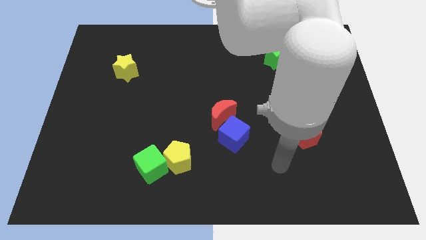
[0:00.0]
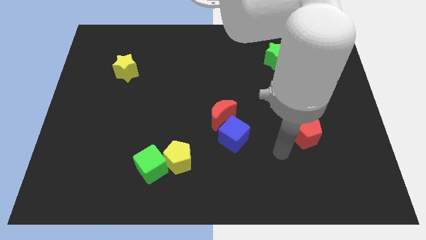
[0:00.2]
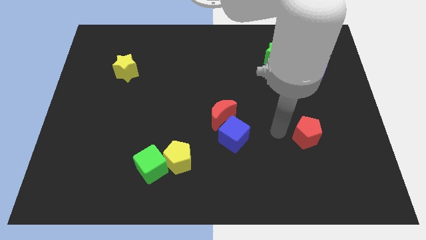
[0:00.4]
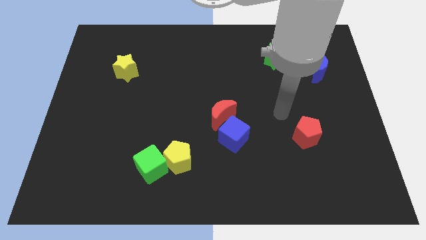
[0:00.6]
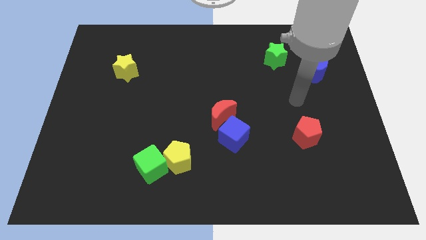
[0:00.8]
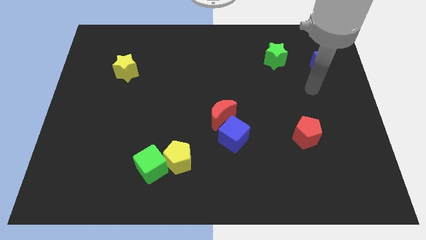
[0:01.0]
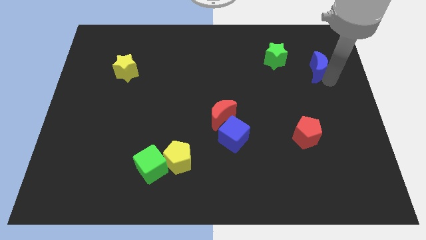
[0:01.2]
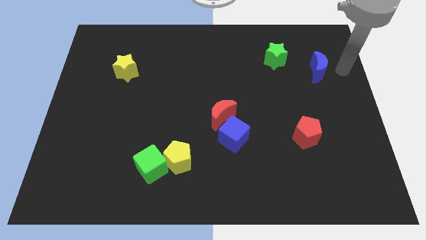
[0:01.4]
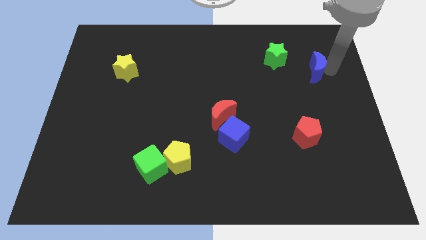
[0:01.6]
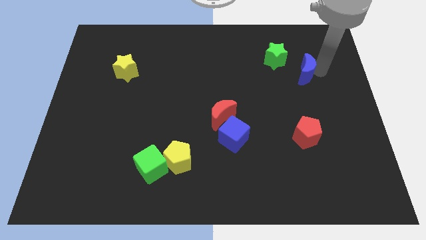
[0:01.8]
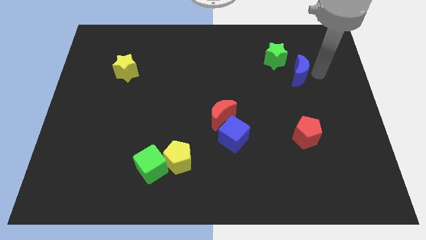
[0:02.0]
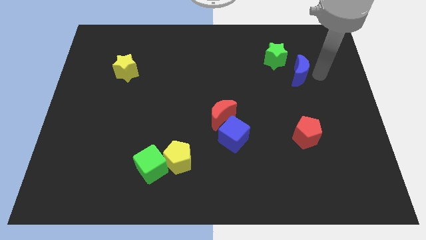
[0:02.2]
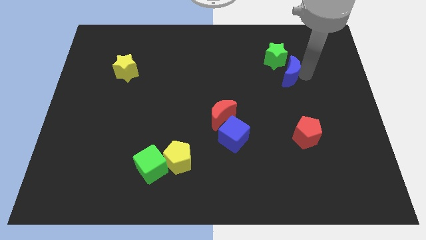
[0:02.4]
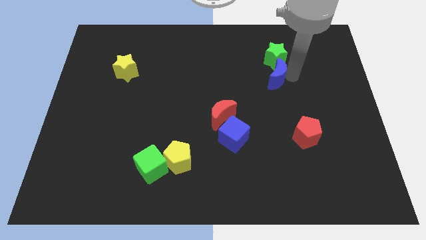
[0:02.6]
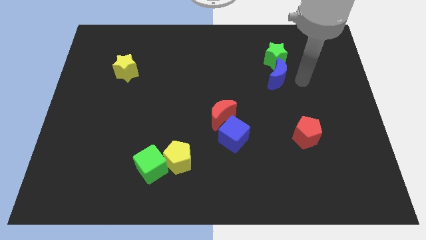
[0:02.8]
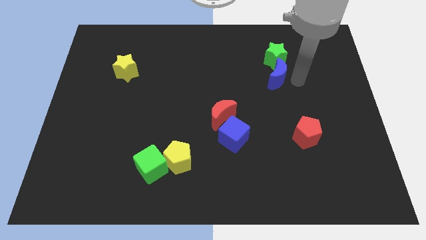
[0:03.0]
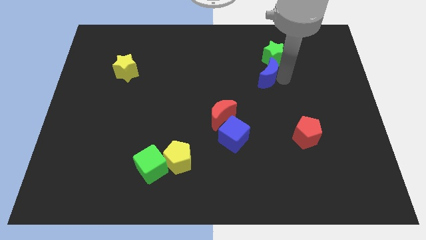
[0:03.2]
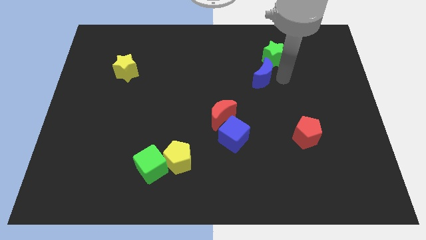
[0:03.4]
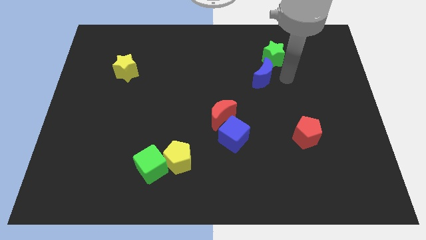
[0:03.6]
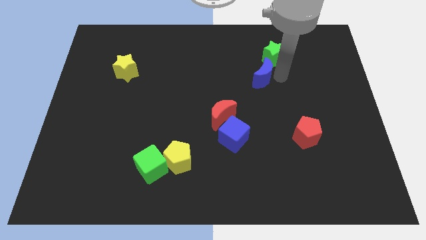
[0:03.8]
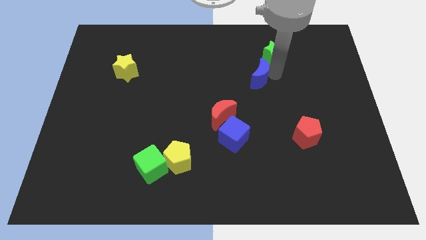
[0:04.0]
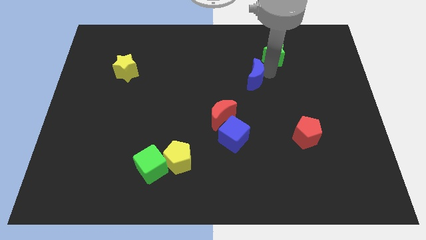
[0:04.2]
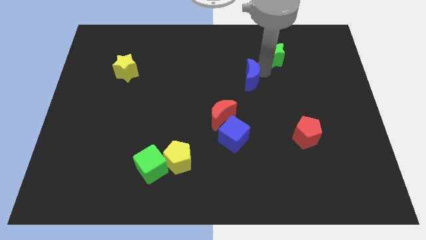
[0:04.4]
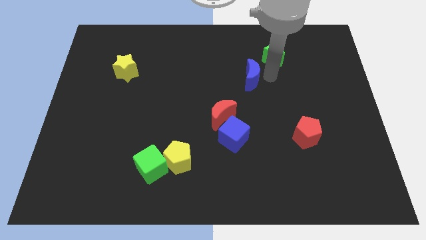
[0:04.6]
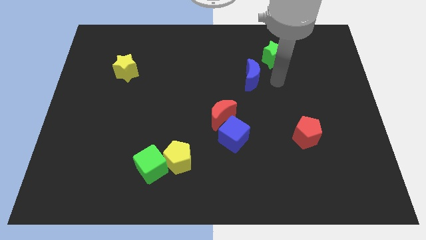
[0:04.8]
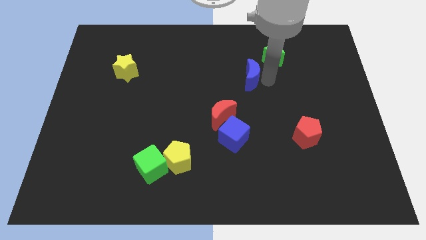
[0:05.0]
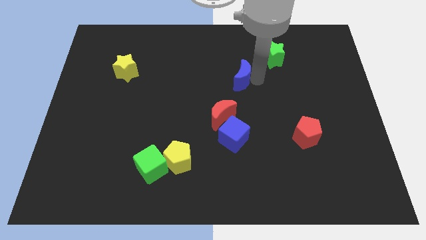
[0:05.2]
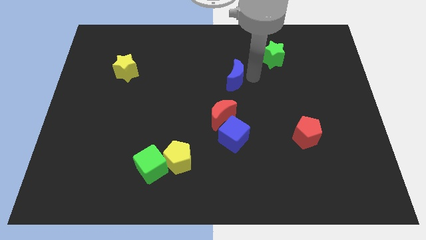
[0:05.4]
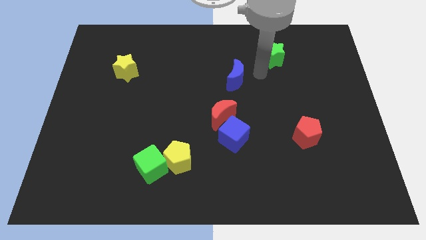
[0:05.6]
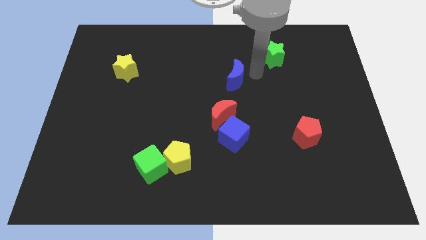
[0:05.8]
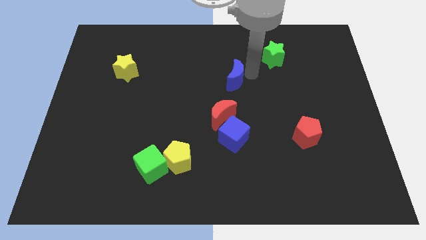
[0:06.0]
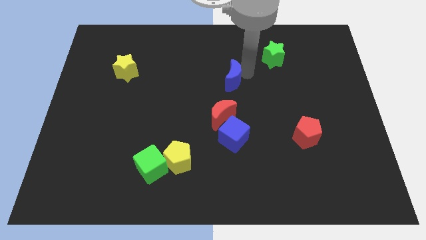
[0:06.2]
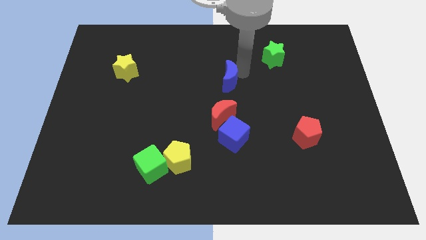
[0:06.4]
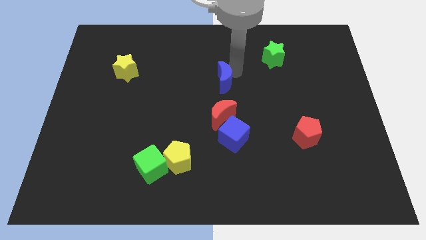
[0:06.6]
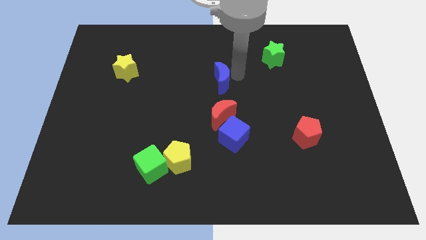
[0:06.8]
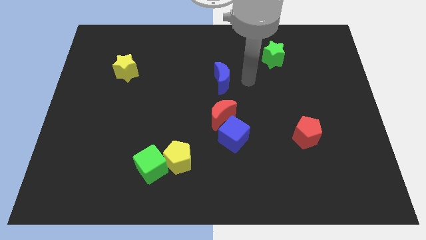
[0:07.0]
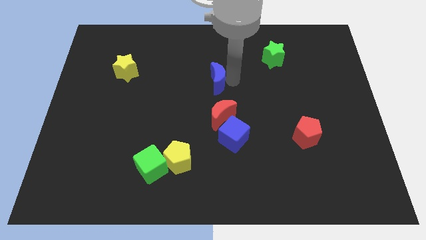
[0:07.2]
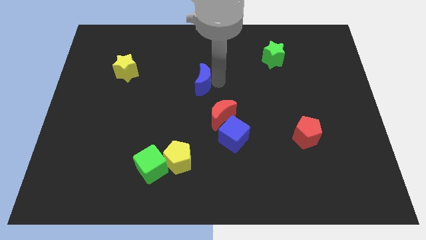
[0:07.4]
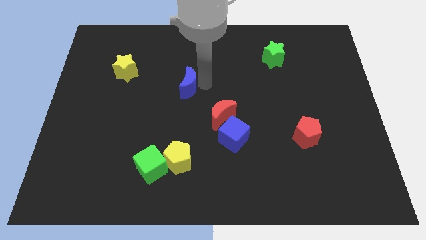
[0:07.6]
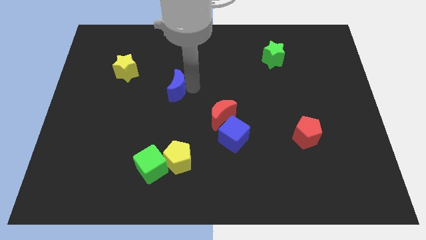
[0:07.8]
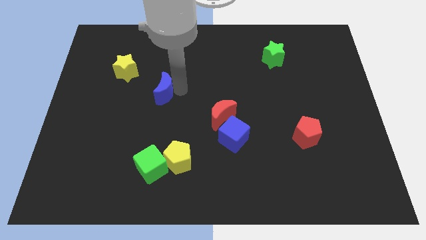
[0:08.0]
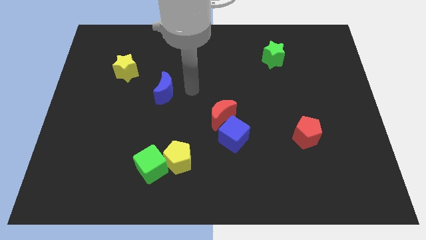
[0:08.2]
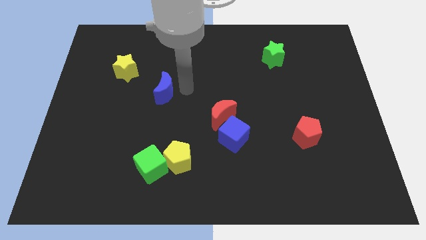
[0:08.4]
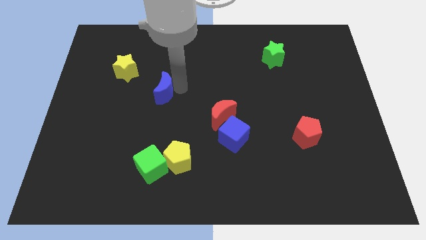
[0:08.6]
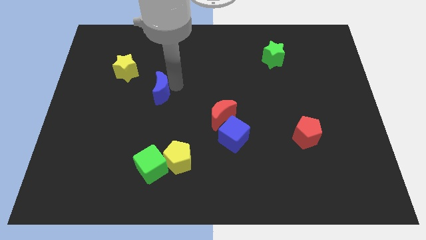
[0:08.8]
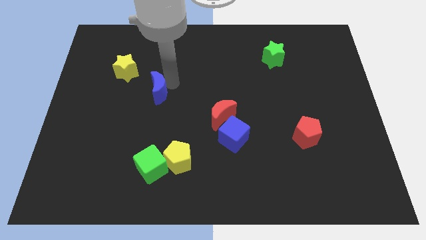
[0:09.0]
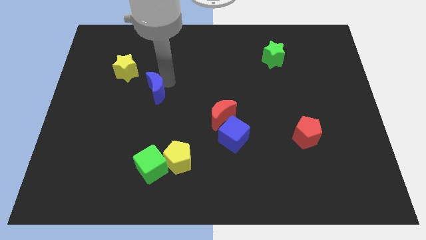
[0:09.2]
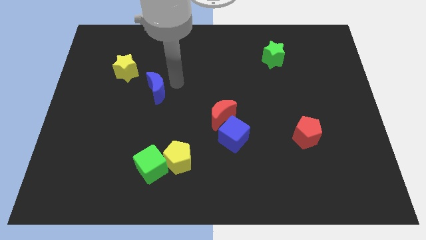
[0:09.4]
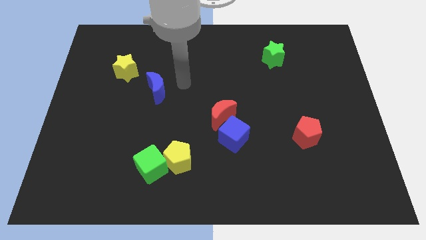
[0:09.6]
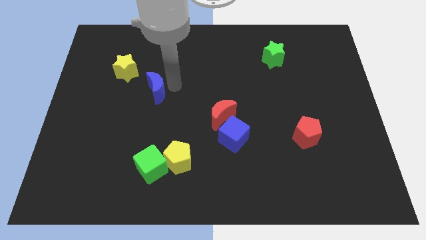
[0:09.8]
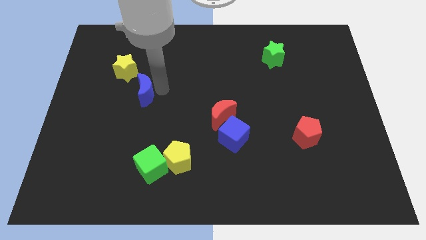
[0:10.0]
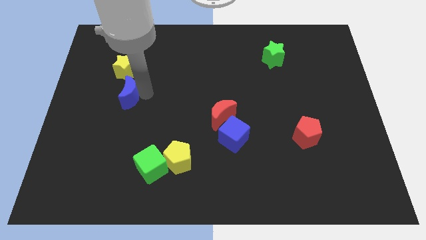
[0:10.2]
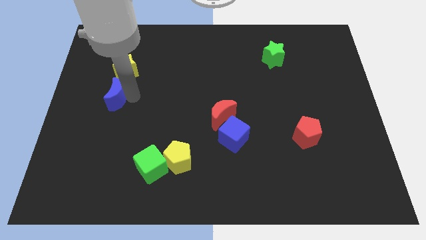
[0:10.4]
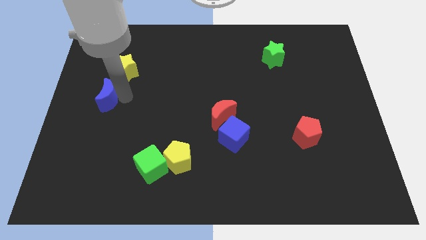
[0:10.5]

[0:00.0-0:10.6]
move the blue moon to the left side of the board

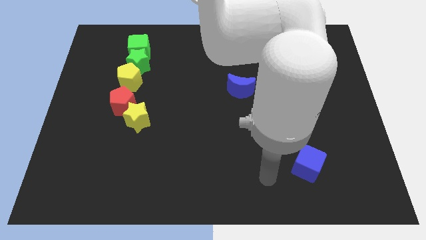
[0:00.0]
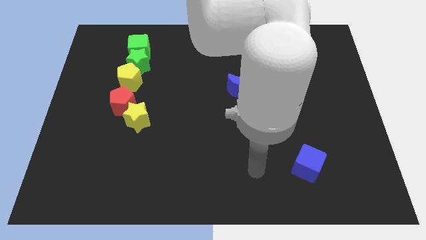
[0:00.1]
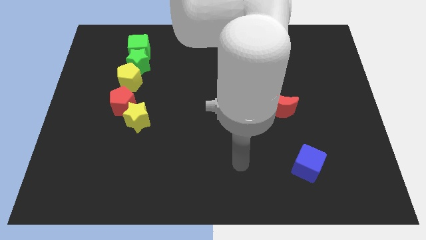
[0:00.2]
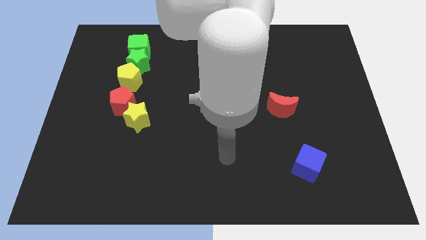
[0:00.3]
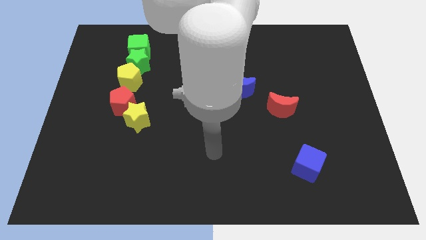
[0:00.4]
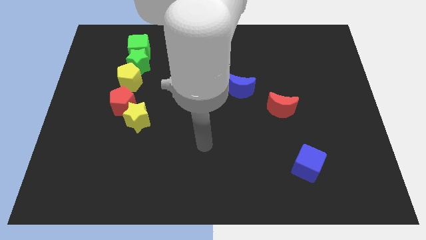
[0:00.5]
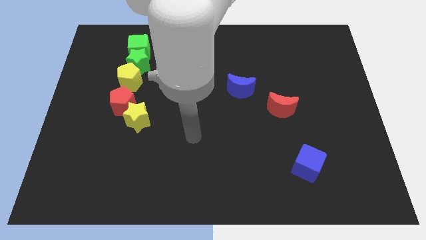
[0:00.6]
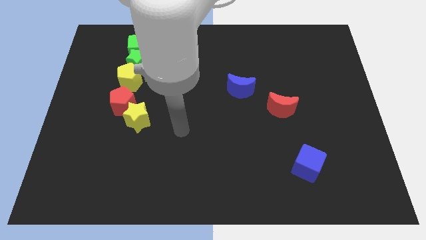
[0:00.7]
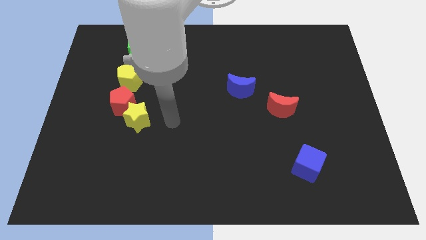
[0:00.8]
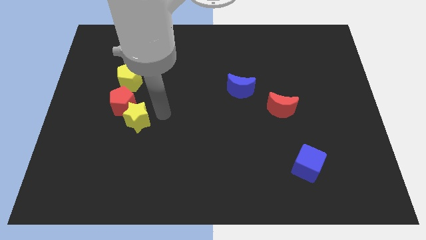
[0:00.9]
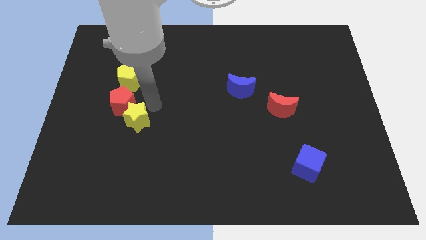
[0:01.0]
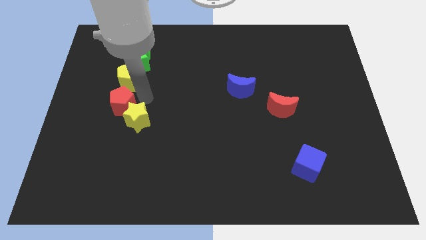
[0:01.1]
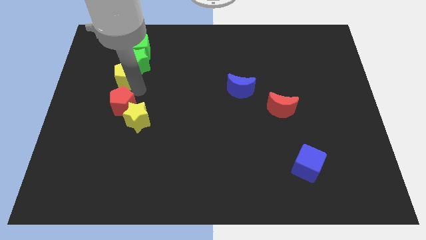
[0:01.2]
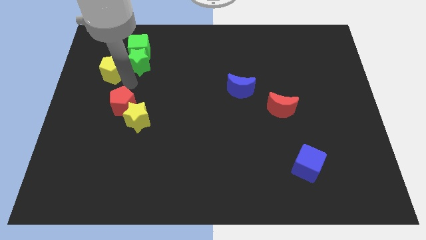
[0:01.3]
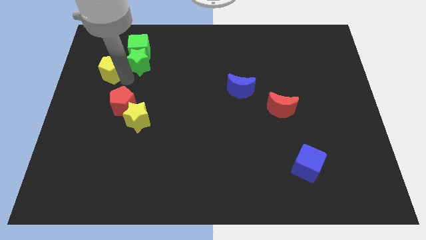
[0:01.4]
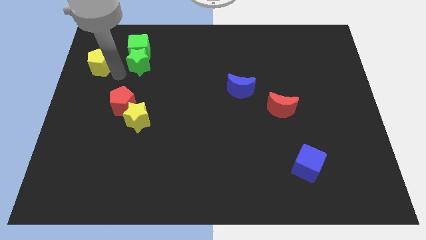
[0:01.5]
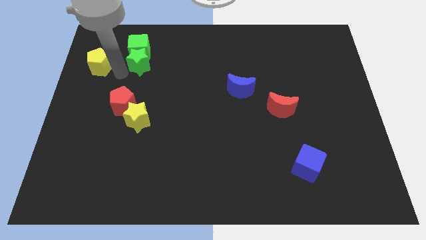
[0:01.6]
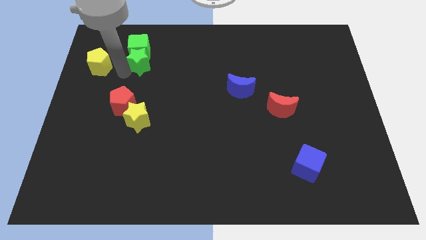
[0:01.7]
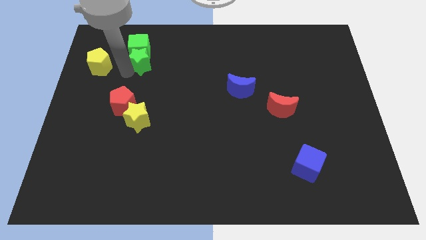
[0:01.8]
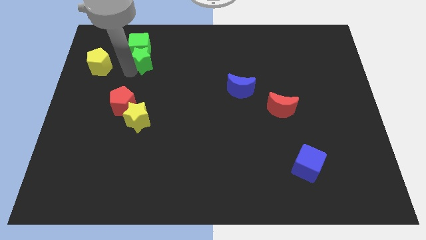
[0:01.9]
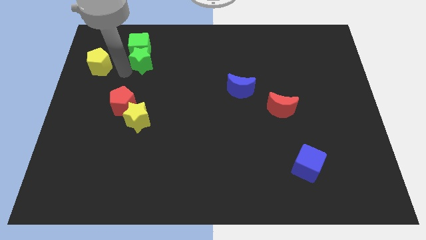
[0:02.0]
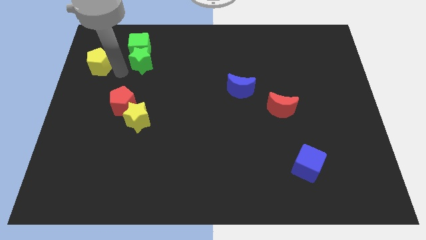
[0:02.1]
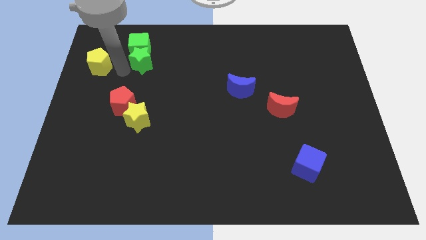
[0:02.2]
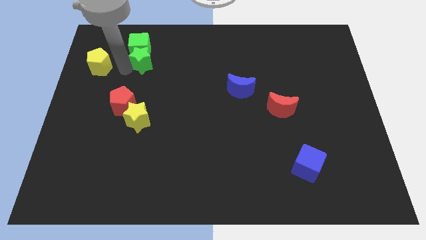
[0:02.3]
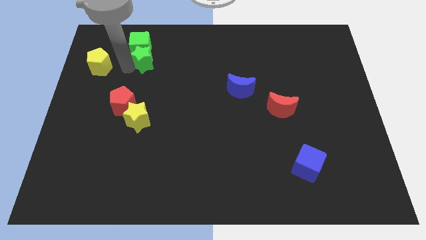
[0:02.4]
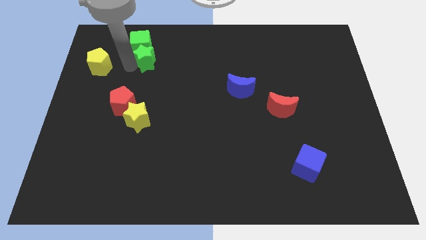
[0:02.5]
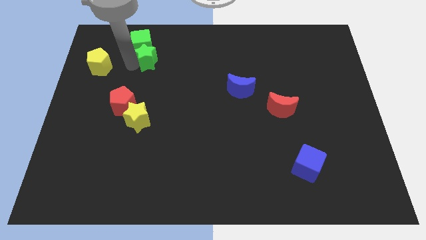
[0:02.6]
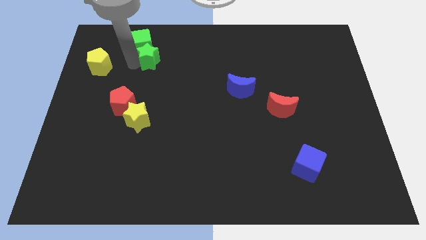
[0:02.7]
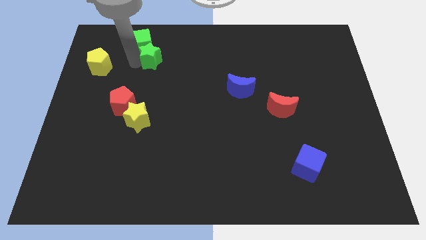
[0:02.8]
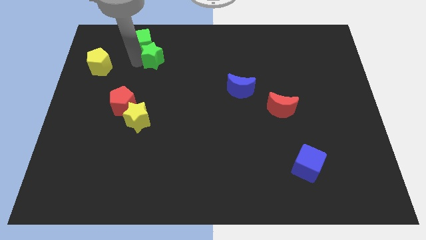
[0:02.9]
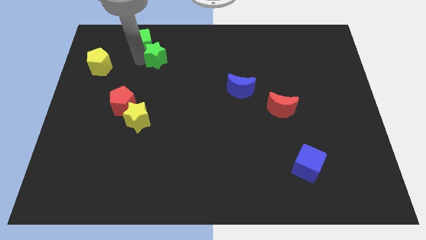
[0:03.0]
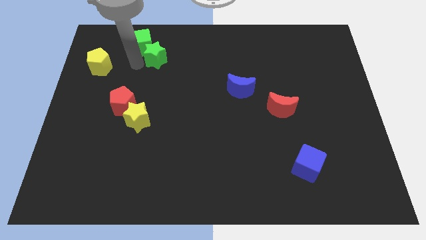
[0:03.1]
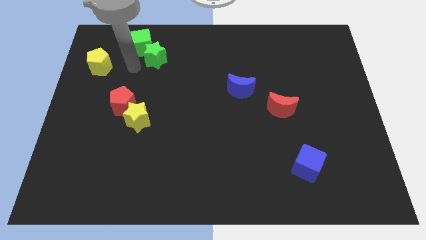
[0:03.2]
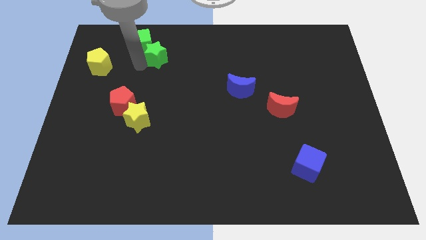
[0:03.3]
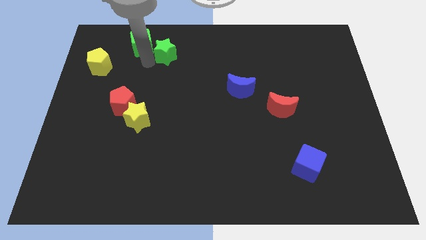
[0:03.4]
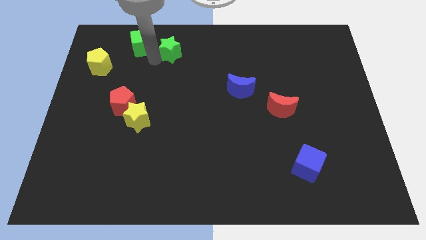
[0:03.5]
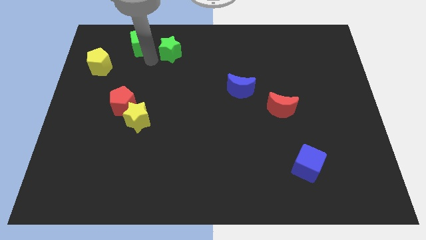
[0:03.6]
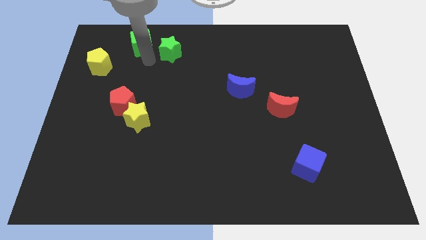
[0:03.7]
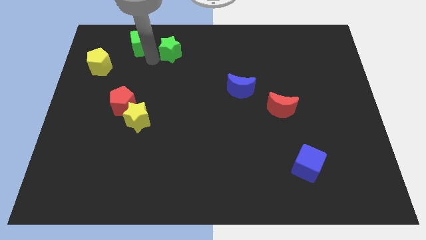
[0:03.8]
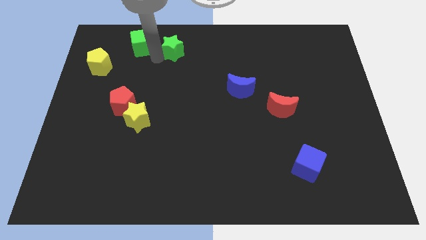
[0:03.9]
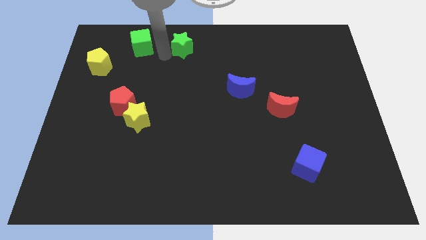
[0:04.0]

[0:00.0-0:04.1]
slide the green star to the towards your base
